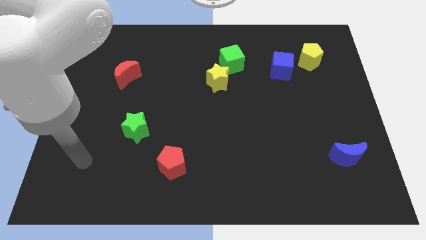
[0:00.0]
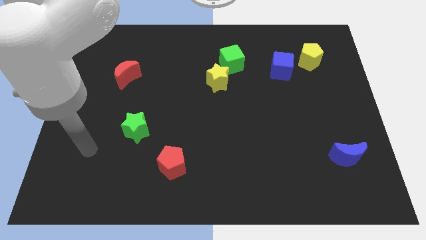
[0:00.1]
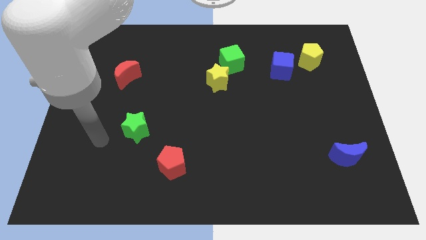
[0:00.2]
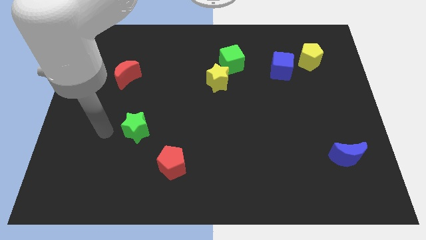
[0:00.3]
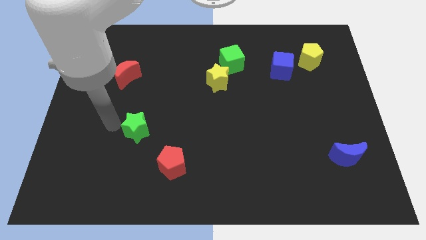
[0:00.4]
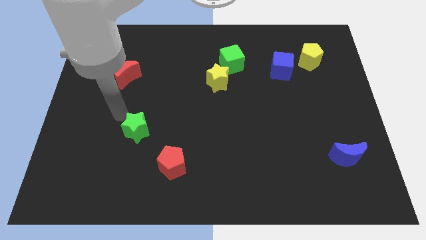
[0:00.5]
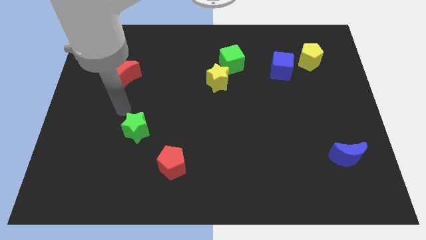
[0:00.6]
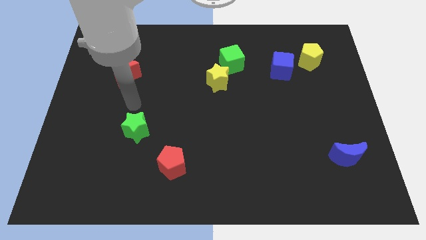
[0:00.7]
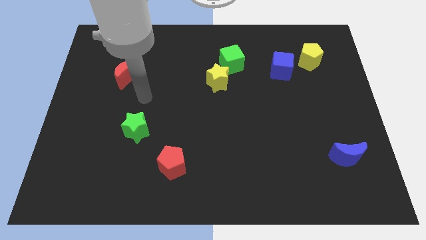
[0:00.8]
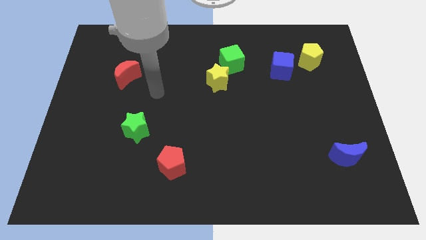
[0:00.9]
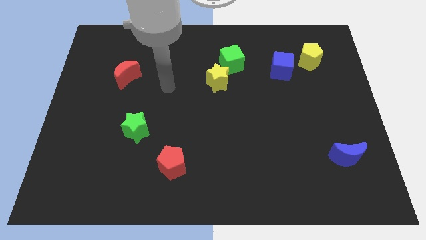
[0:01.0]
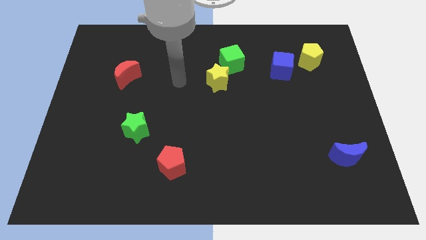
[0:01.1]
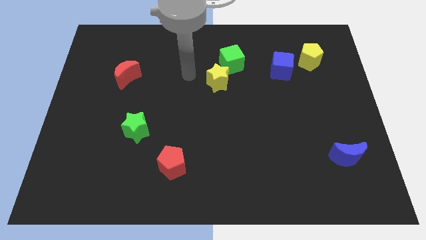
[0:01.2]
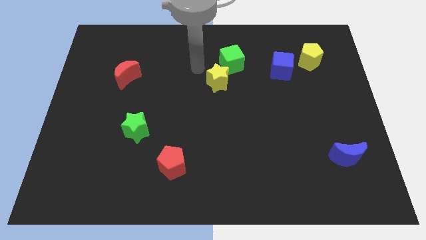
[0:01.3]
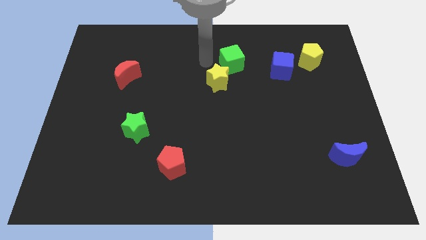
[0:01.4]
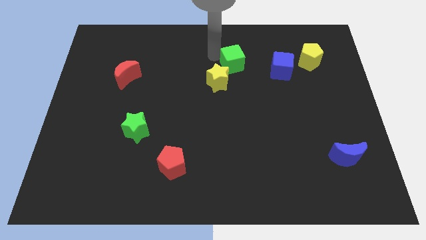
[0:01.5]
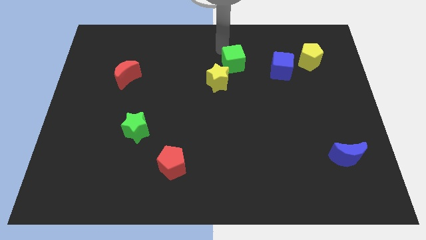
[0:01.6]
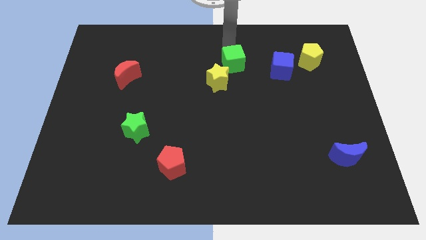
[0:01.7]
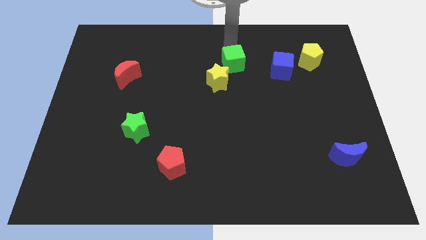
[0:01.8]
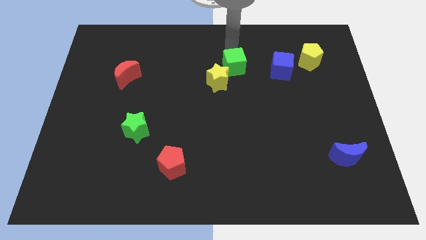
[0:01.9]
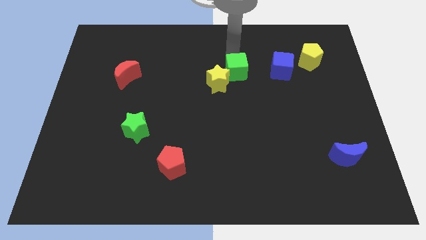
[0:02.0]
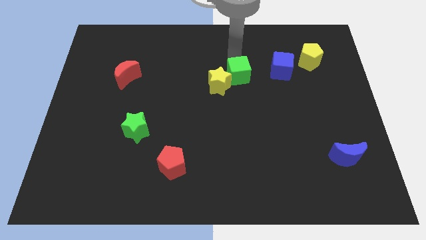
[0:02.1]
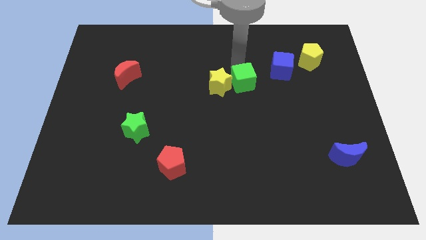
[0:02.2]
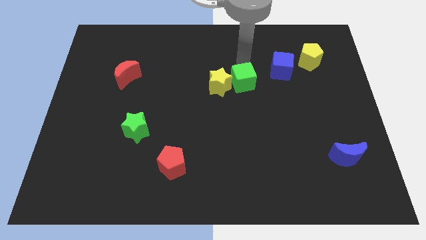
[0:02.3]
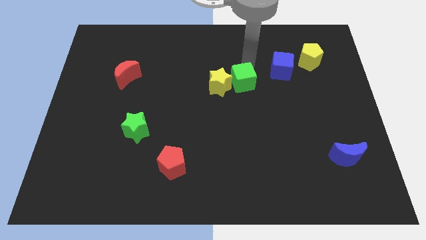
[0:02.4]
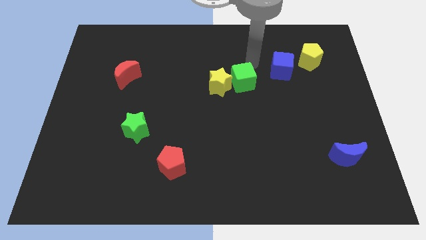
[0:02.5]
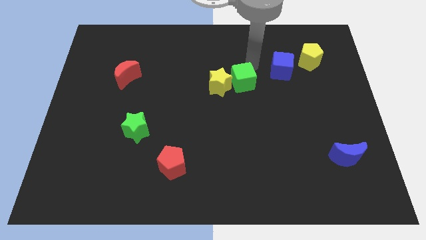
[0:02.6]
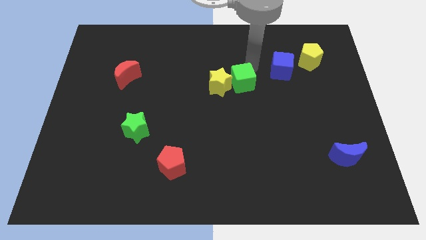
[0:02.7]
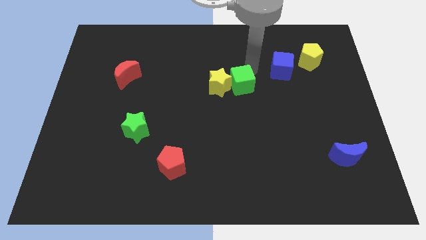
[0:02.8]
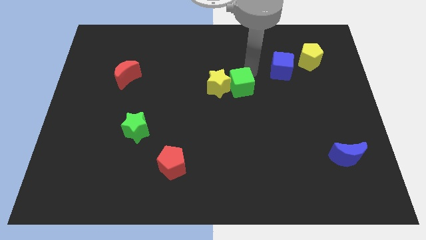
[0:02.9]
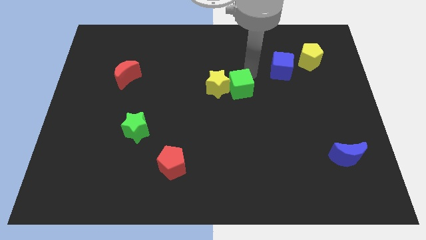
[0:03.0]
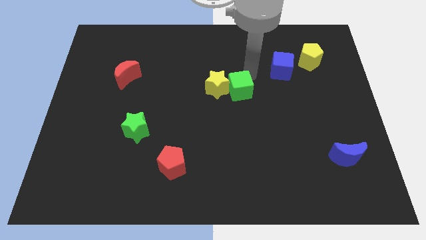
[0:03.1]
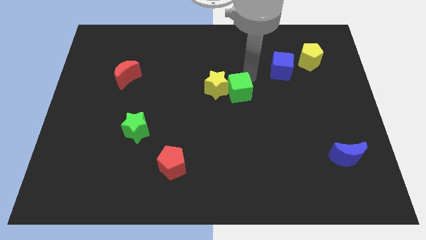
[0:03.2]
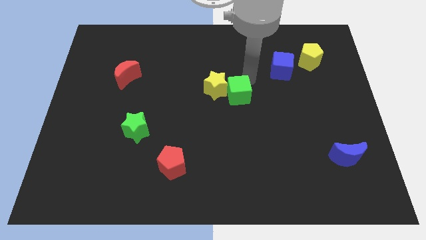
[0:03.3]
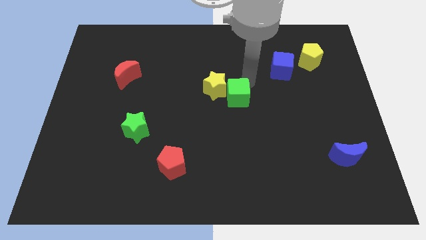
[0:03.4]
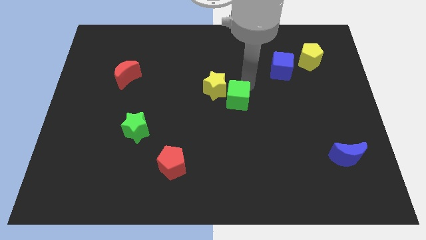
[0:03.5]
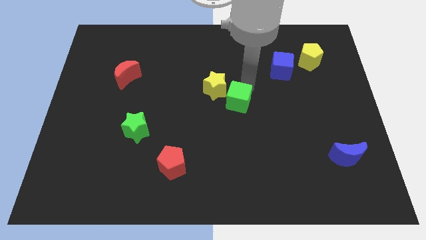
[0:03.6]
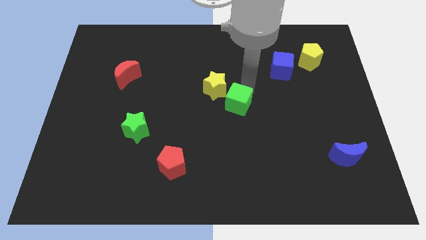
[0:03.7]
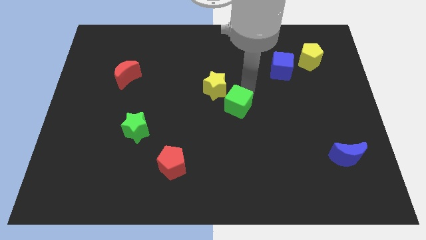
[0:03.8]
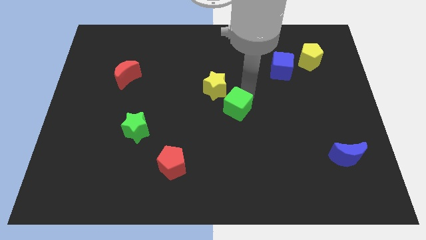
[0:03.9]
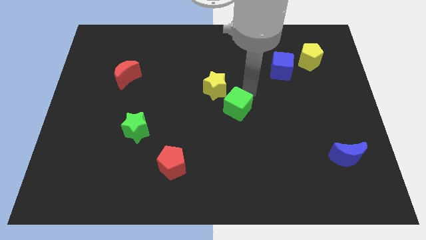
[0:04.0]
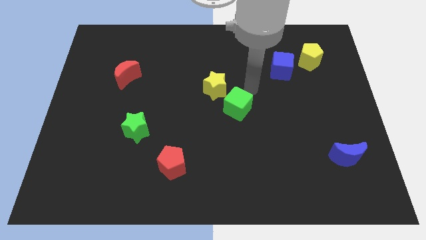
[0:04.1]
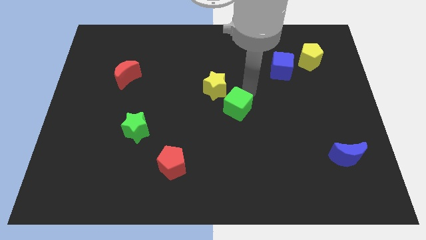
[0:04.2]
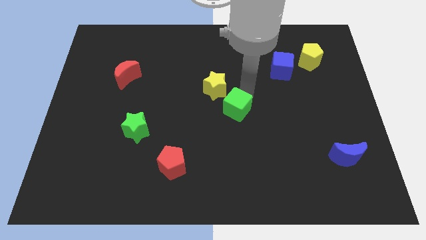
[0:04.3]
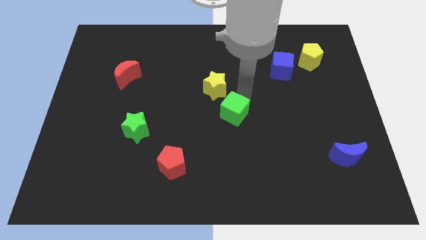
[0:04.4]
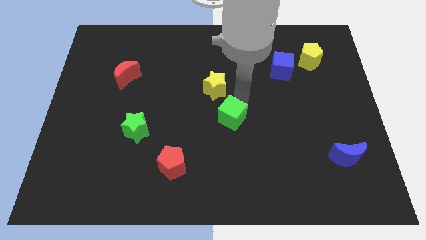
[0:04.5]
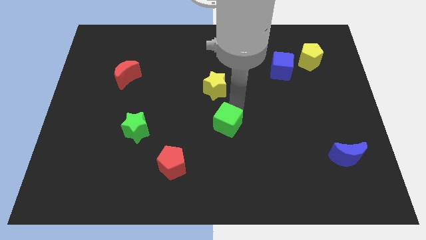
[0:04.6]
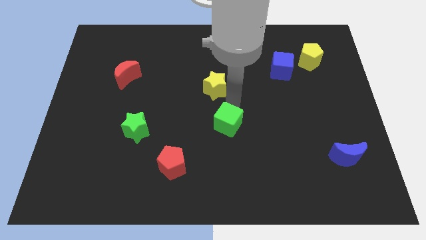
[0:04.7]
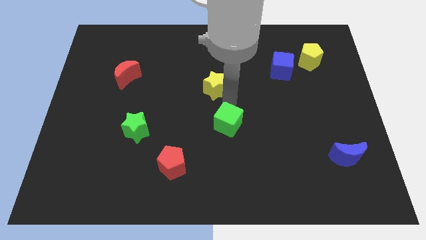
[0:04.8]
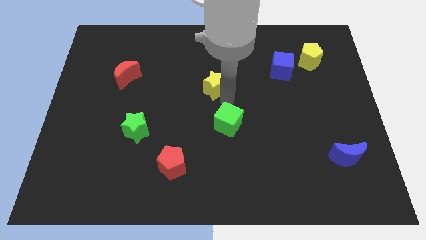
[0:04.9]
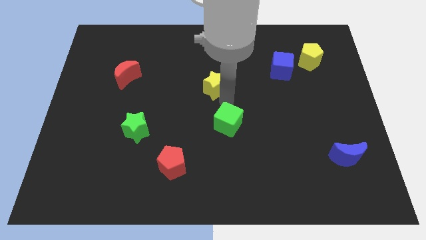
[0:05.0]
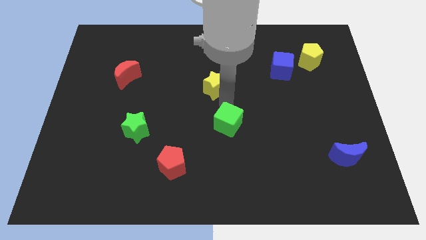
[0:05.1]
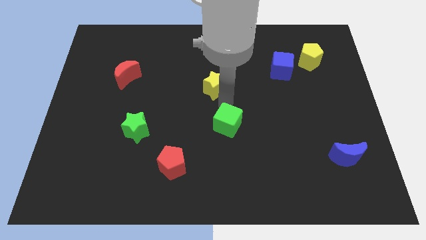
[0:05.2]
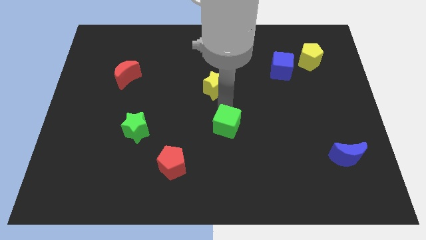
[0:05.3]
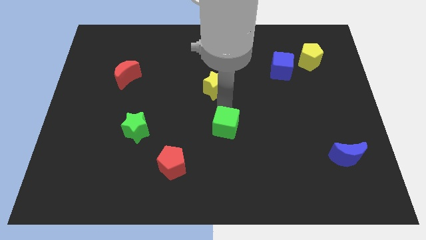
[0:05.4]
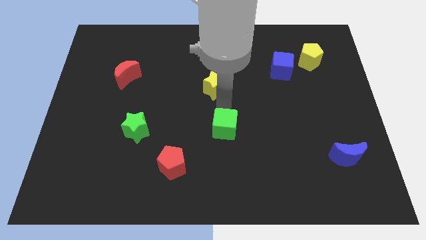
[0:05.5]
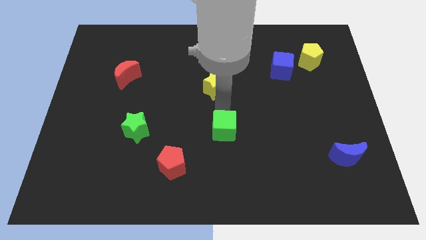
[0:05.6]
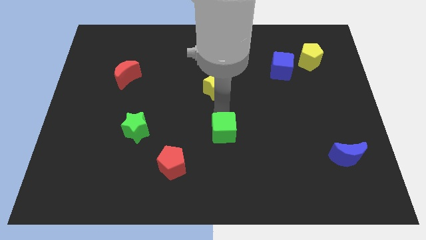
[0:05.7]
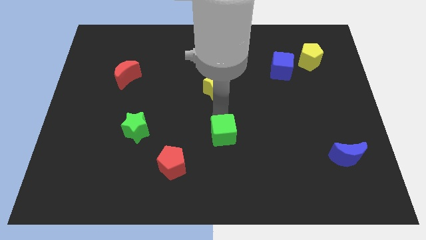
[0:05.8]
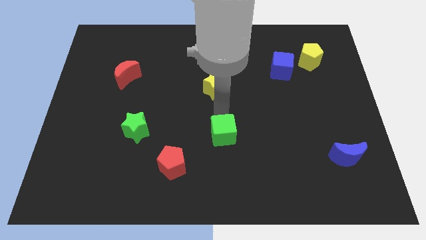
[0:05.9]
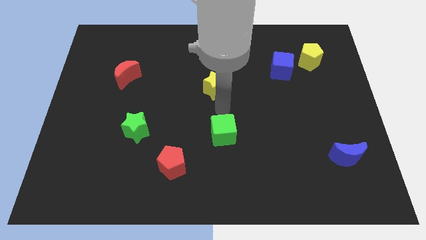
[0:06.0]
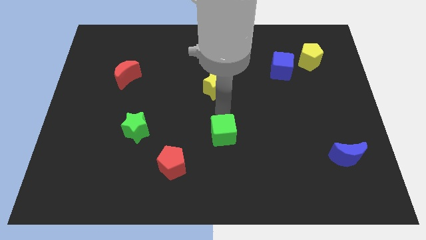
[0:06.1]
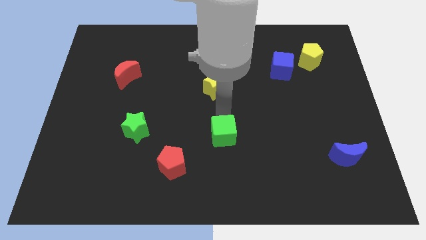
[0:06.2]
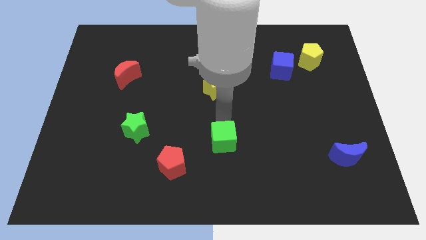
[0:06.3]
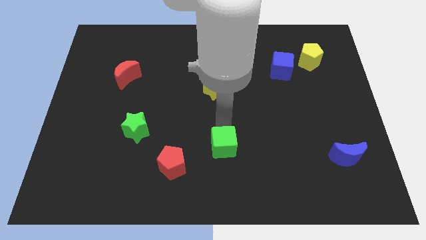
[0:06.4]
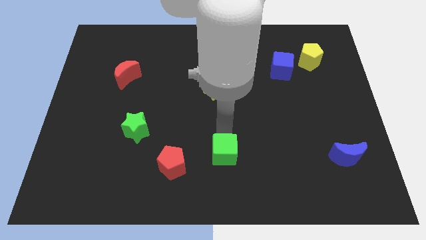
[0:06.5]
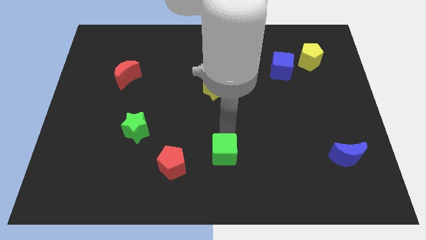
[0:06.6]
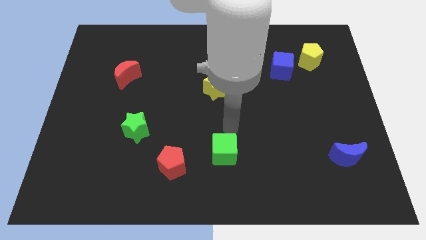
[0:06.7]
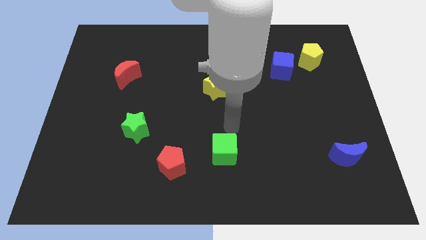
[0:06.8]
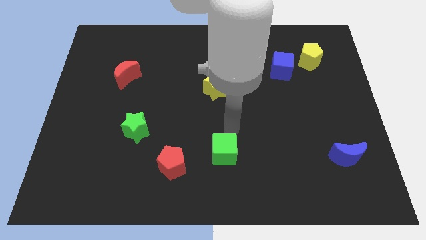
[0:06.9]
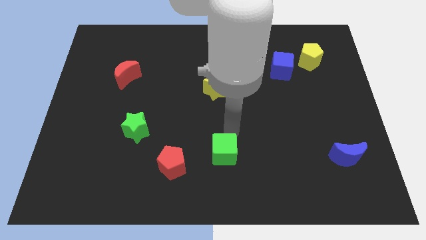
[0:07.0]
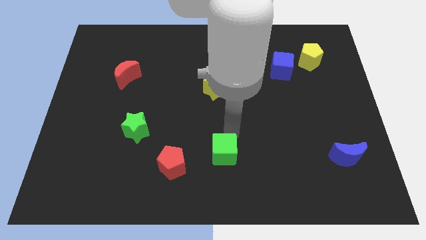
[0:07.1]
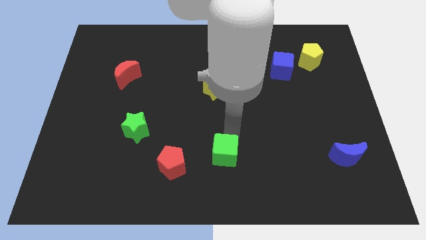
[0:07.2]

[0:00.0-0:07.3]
slide the green cube to the bottom
